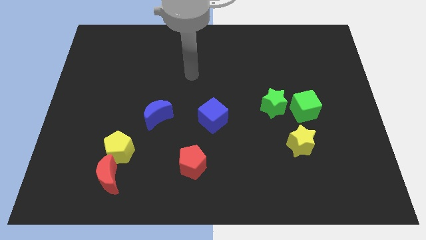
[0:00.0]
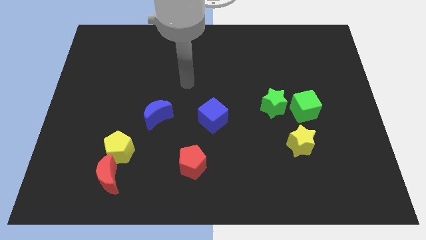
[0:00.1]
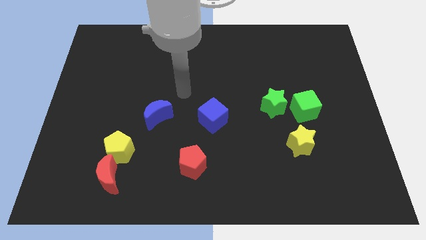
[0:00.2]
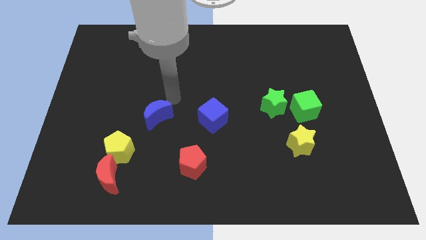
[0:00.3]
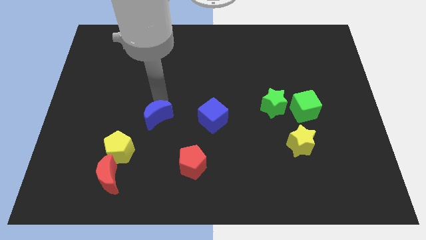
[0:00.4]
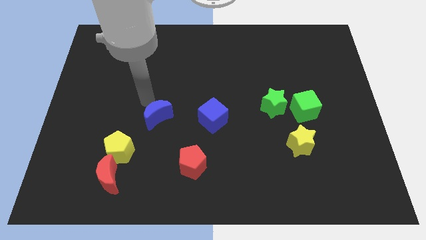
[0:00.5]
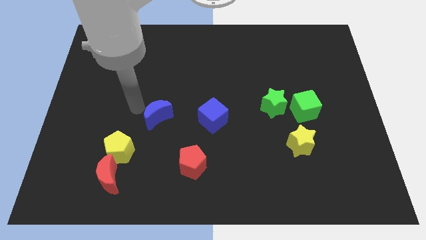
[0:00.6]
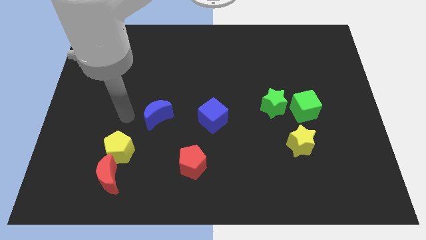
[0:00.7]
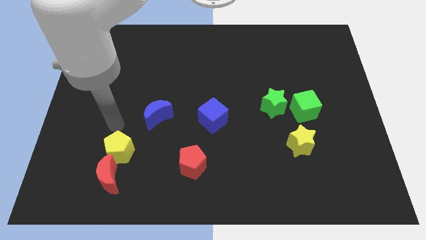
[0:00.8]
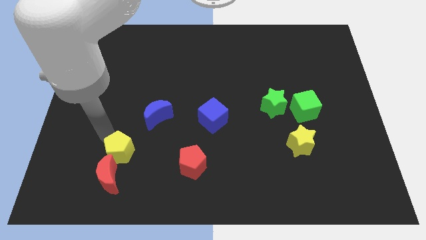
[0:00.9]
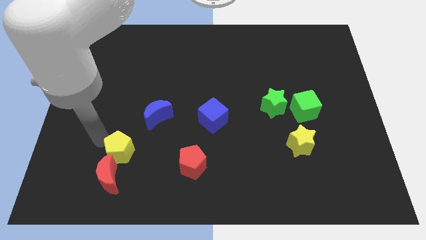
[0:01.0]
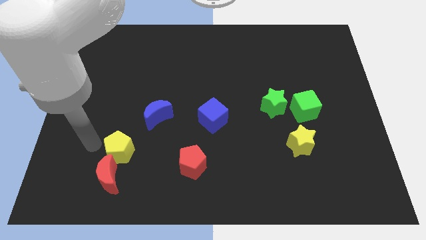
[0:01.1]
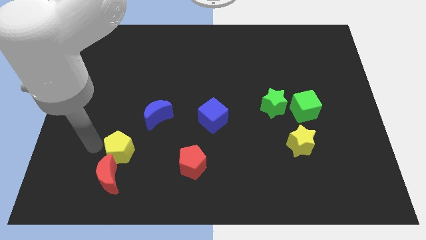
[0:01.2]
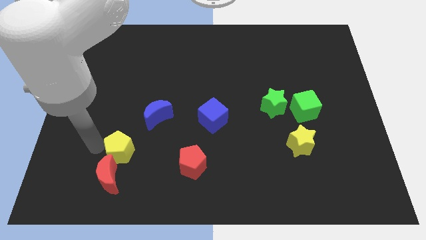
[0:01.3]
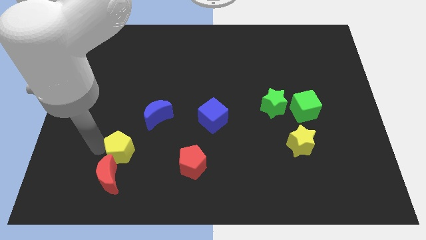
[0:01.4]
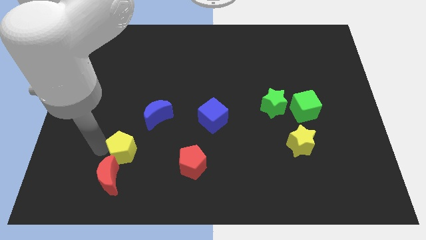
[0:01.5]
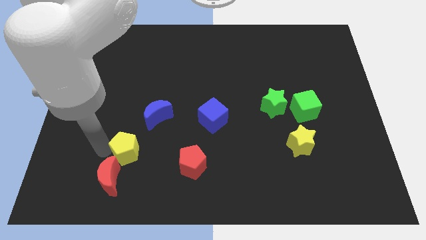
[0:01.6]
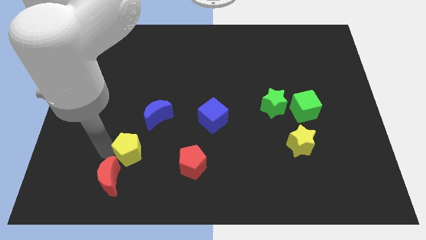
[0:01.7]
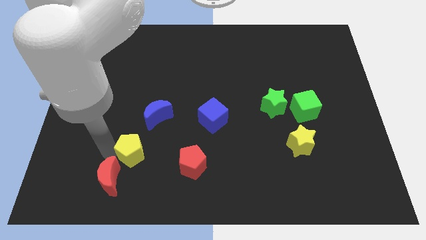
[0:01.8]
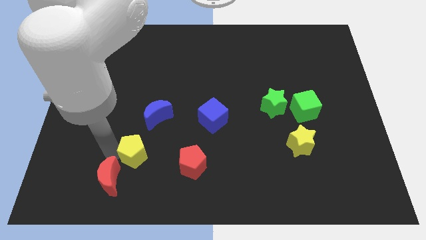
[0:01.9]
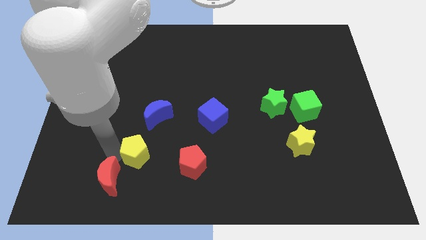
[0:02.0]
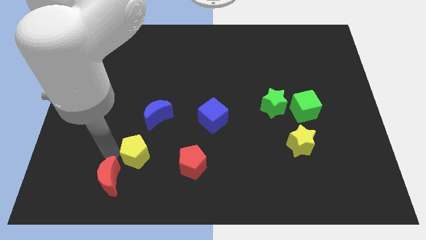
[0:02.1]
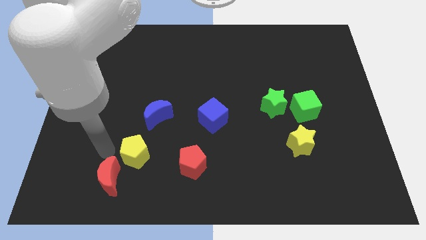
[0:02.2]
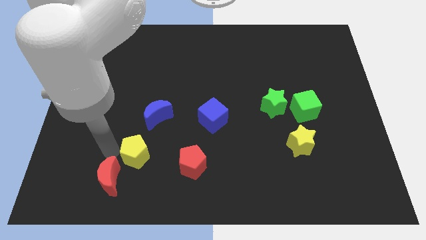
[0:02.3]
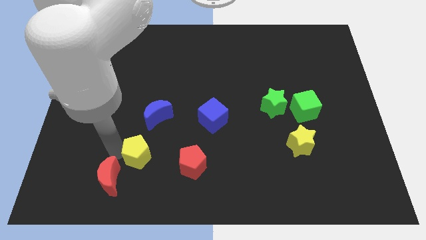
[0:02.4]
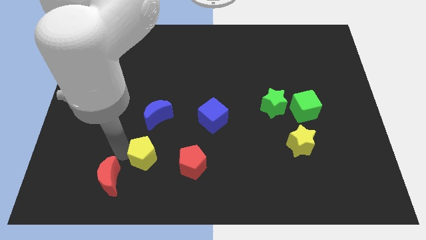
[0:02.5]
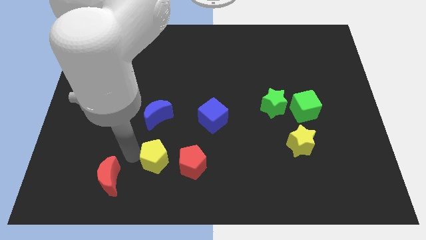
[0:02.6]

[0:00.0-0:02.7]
slightly push the yellow pentagon right

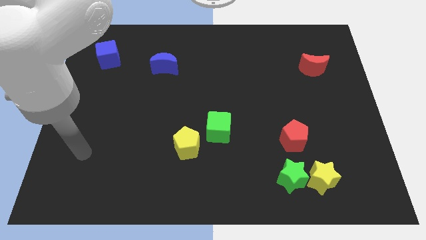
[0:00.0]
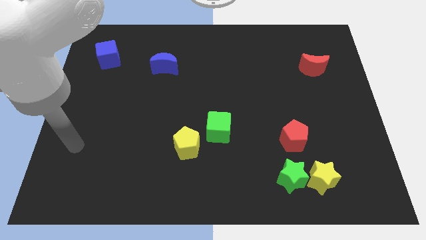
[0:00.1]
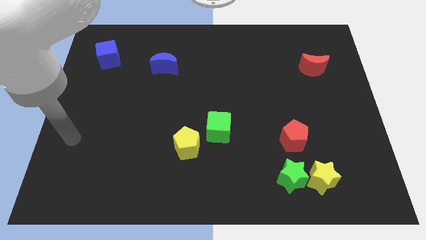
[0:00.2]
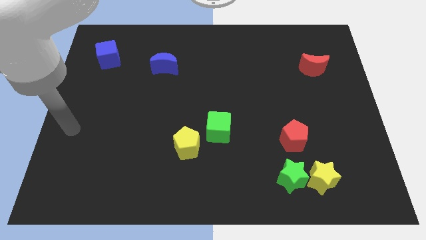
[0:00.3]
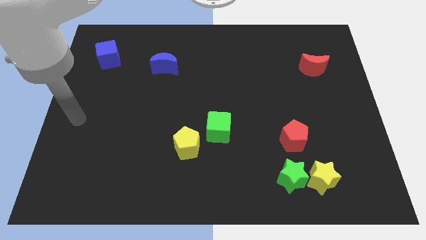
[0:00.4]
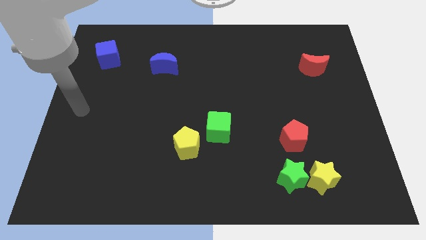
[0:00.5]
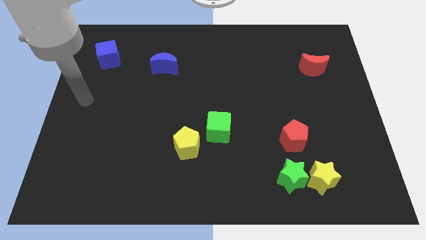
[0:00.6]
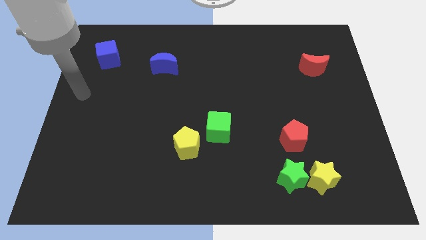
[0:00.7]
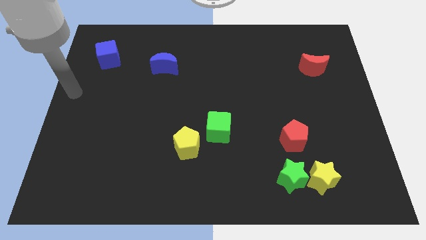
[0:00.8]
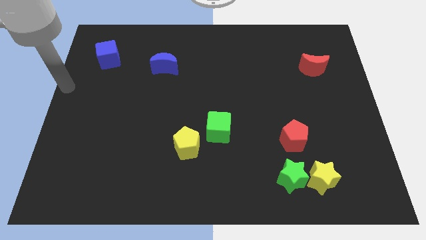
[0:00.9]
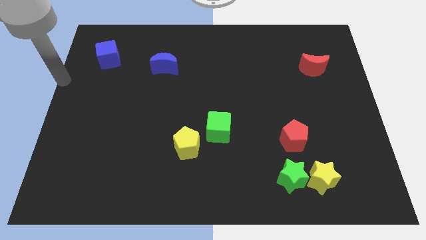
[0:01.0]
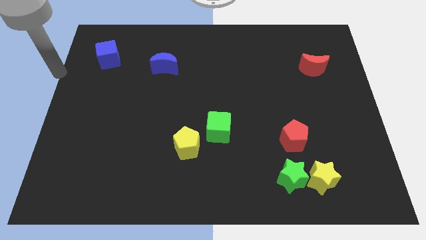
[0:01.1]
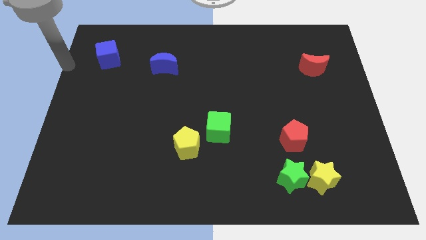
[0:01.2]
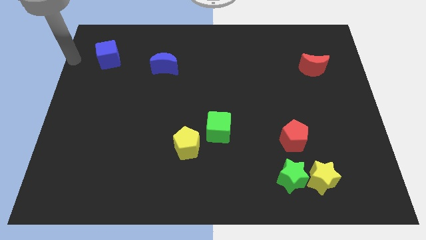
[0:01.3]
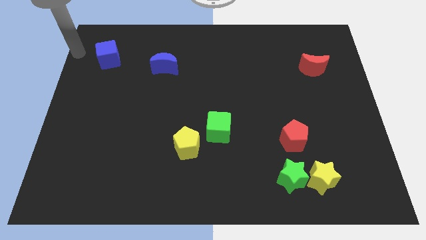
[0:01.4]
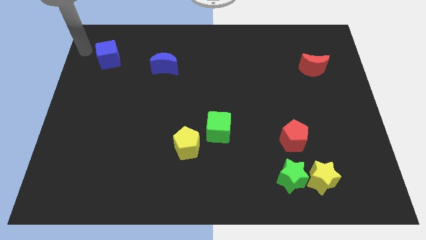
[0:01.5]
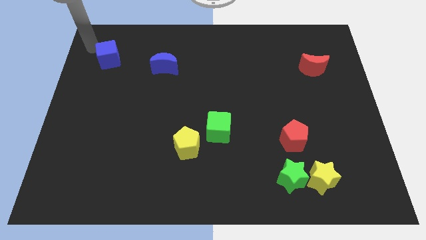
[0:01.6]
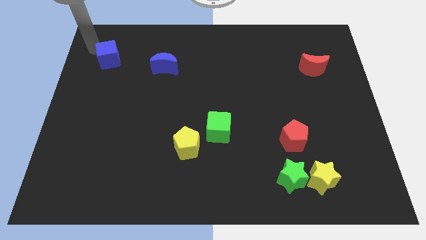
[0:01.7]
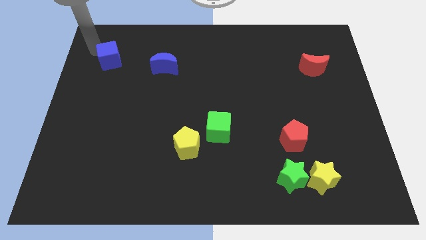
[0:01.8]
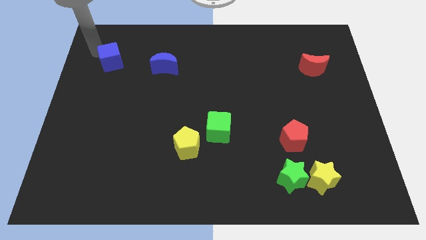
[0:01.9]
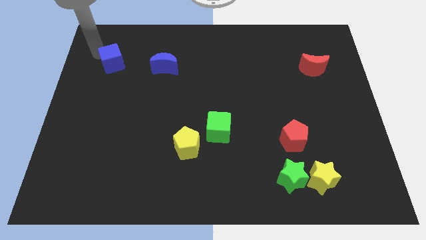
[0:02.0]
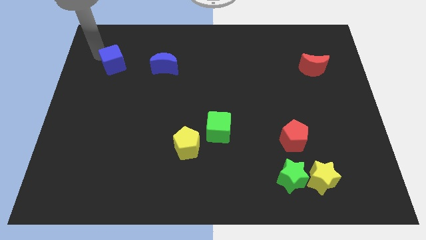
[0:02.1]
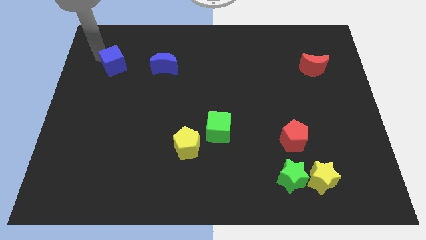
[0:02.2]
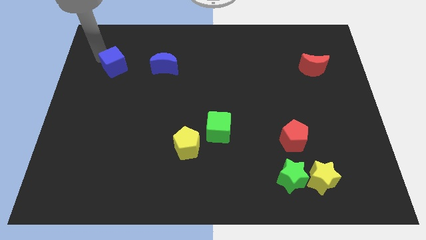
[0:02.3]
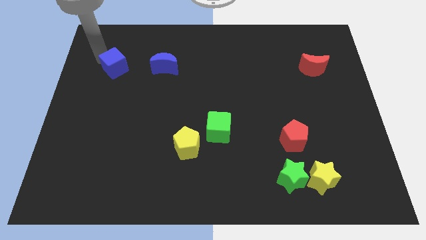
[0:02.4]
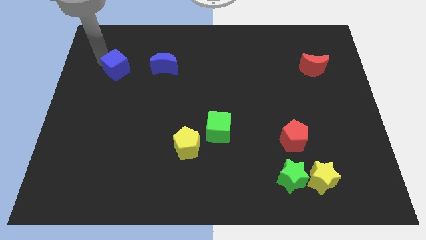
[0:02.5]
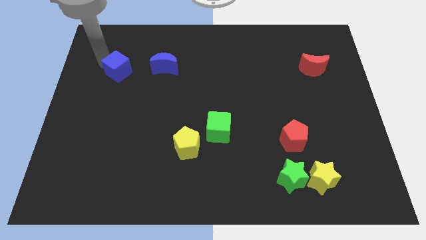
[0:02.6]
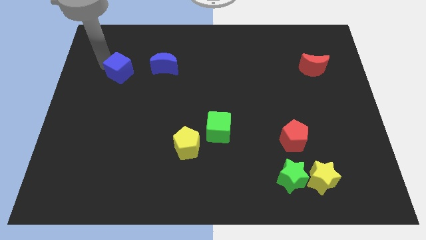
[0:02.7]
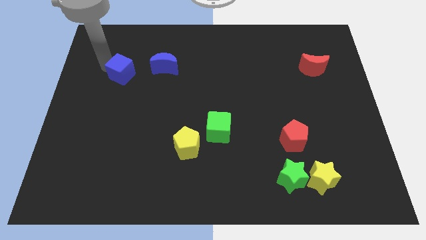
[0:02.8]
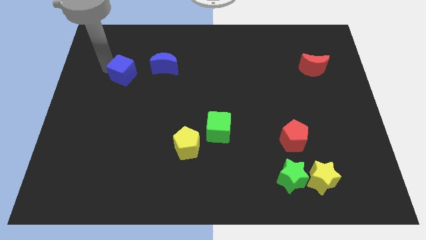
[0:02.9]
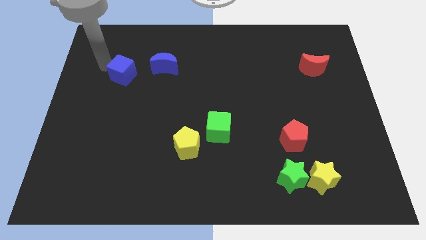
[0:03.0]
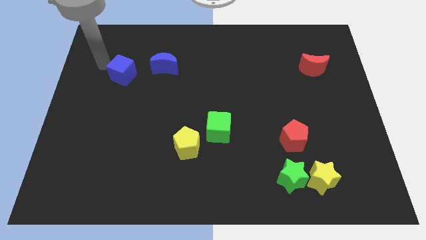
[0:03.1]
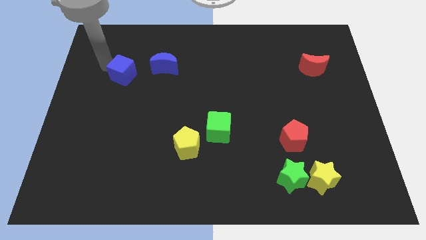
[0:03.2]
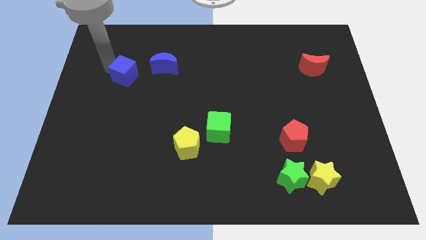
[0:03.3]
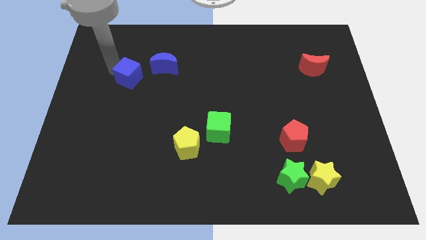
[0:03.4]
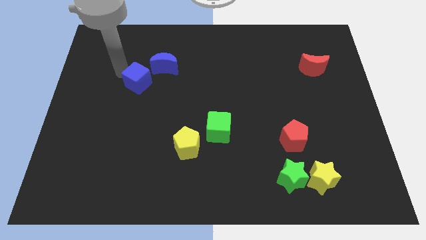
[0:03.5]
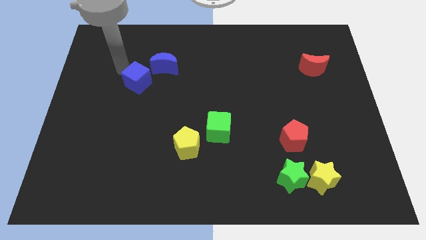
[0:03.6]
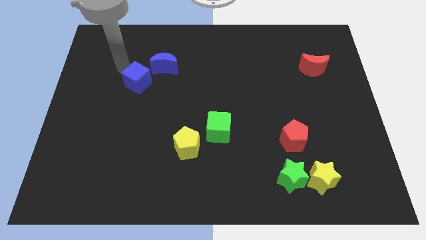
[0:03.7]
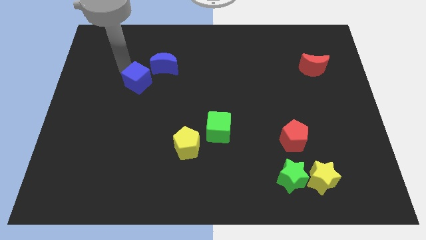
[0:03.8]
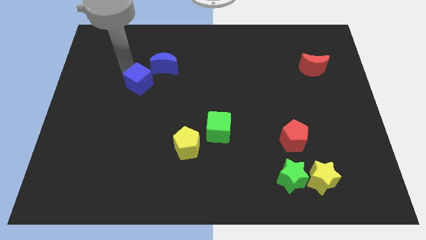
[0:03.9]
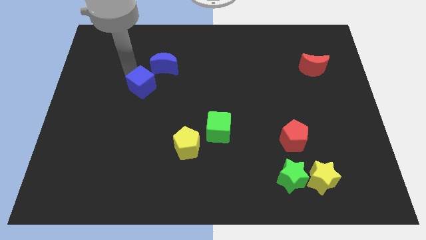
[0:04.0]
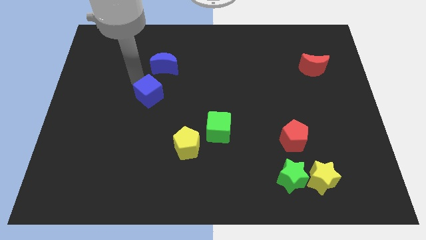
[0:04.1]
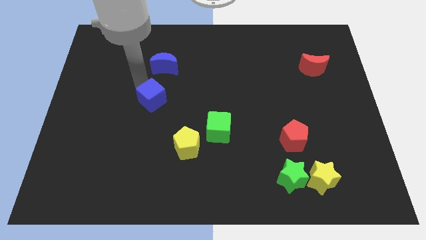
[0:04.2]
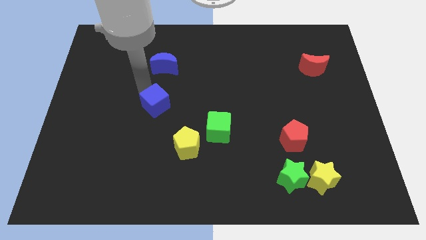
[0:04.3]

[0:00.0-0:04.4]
move the blue cube down and then to the right

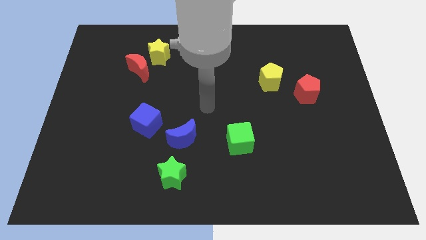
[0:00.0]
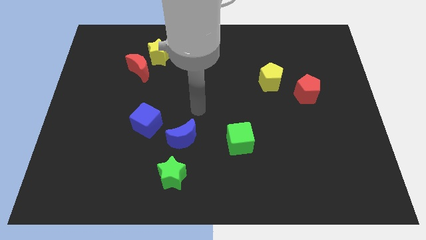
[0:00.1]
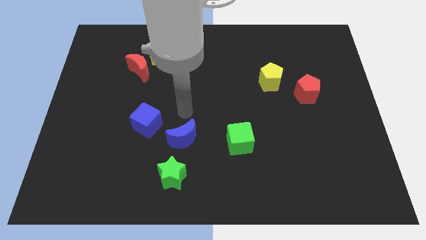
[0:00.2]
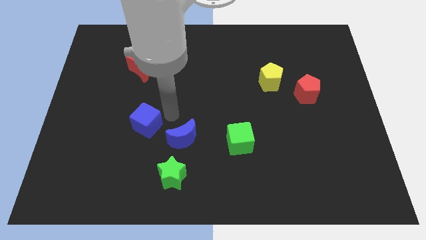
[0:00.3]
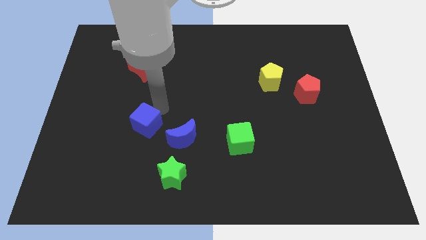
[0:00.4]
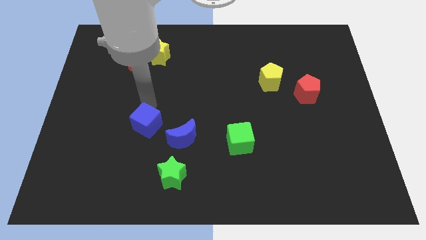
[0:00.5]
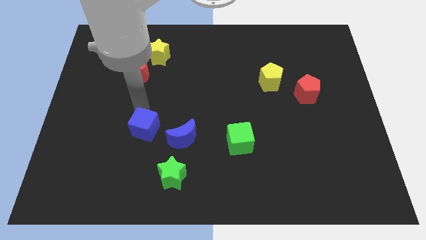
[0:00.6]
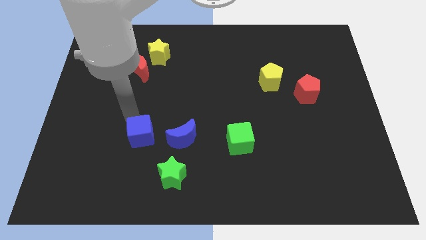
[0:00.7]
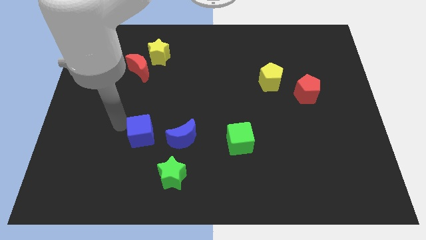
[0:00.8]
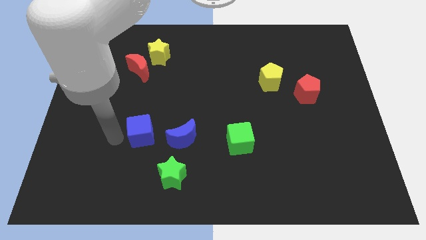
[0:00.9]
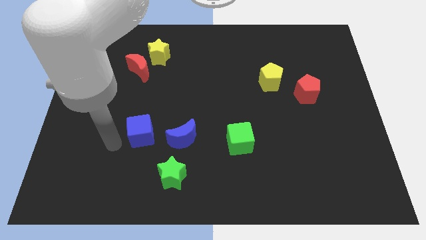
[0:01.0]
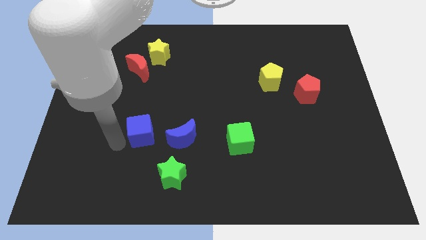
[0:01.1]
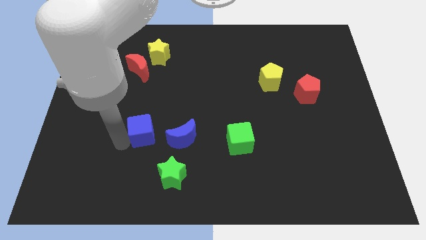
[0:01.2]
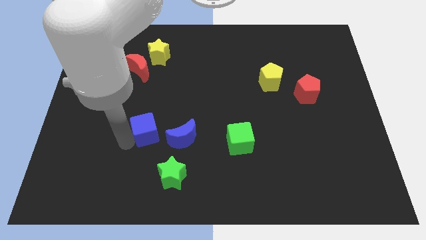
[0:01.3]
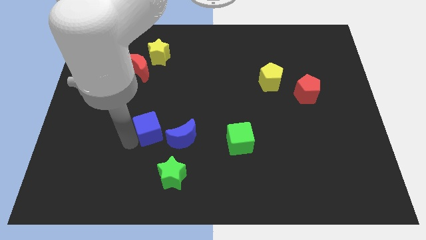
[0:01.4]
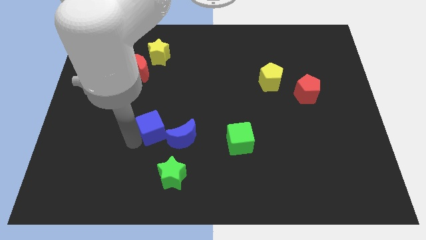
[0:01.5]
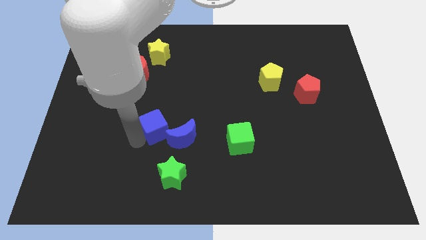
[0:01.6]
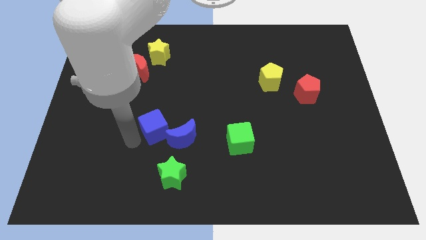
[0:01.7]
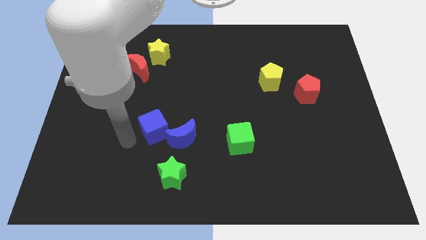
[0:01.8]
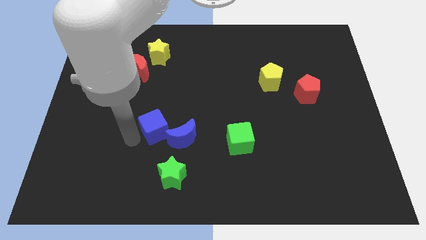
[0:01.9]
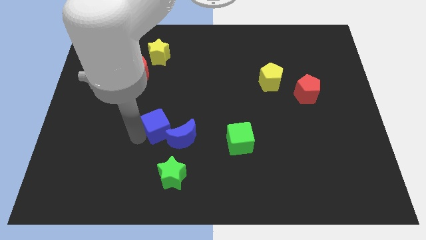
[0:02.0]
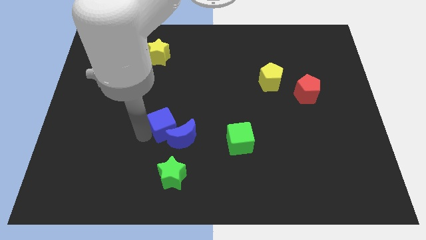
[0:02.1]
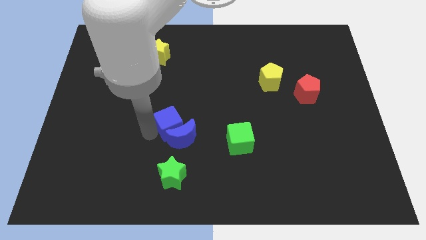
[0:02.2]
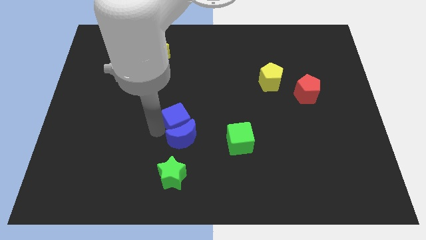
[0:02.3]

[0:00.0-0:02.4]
slide the blue cube a bit to the right
